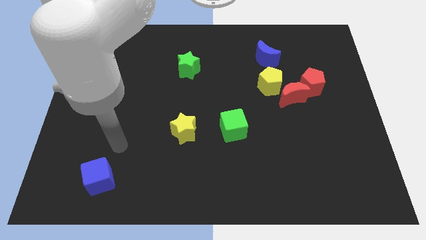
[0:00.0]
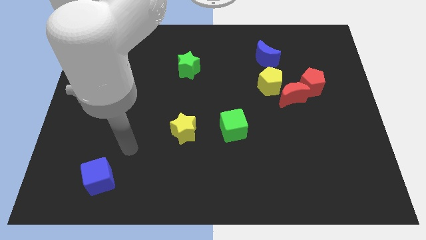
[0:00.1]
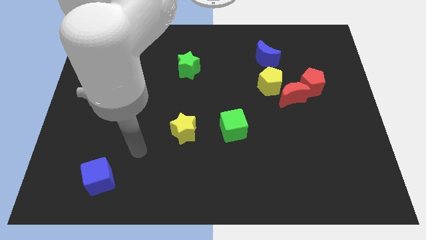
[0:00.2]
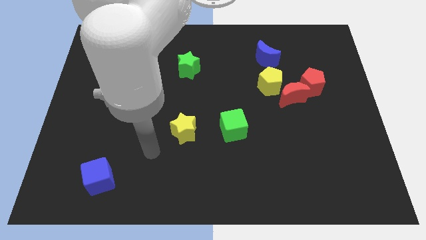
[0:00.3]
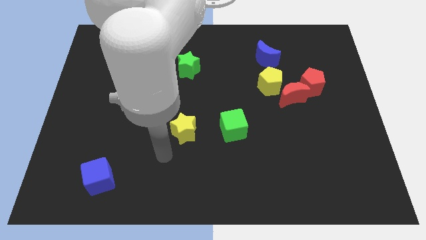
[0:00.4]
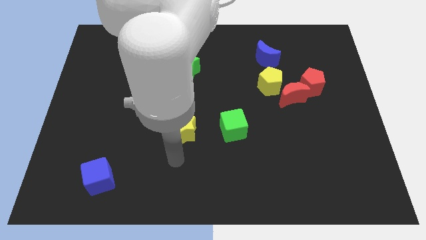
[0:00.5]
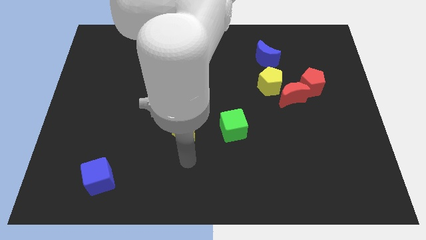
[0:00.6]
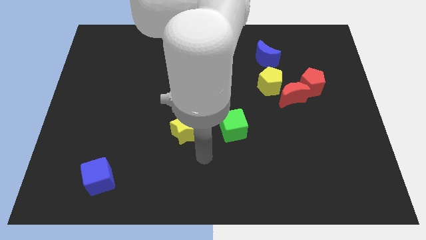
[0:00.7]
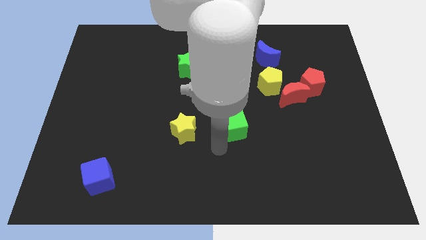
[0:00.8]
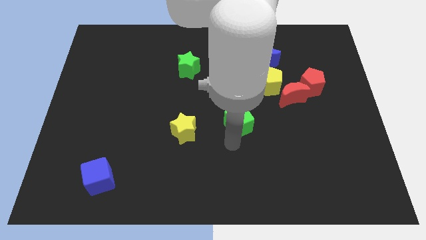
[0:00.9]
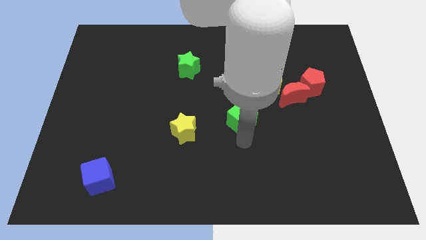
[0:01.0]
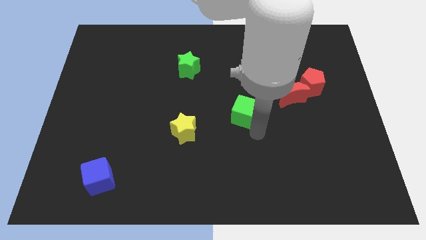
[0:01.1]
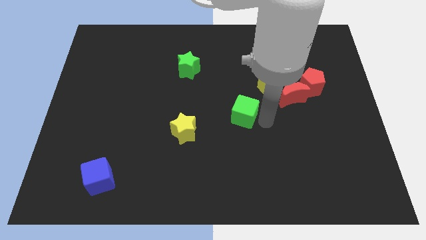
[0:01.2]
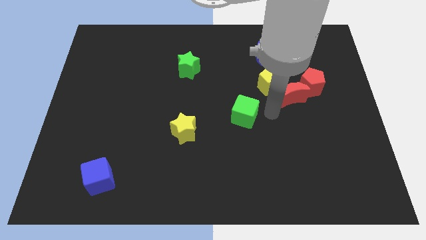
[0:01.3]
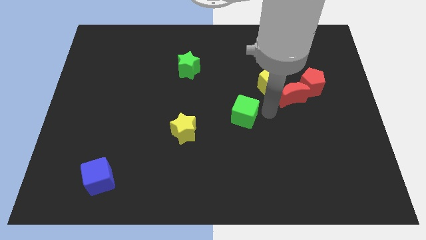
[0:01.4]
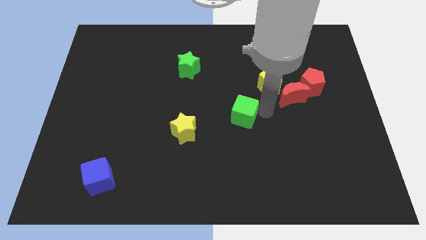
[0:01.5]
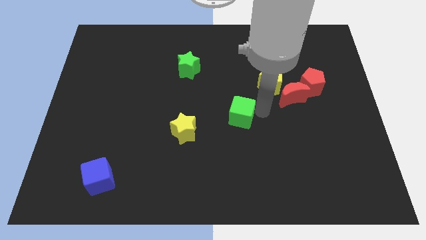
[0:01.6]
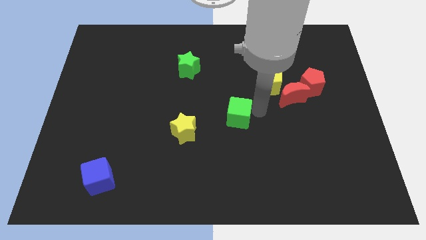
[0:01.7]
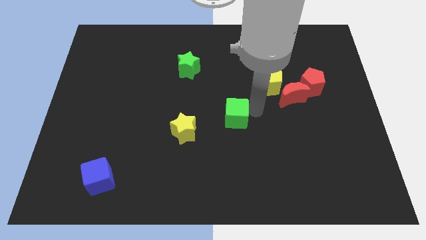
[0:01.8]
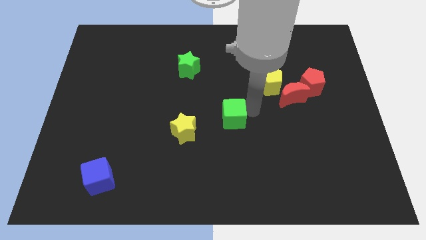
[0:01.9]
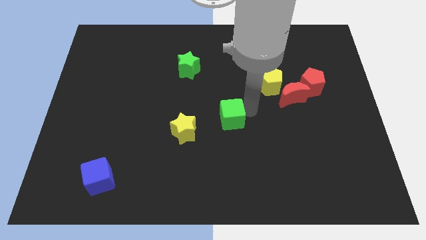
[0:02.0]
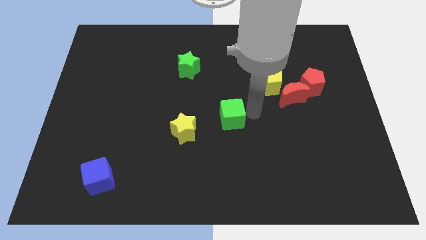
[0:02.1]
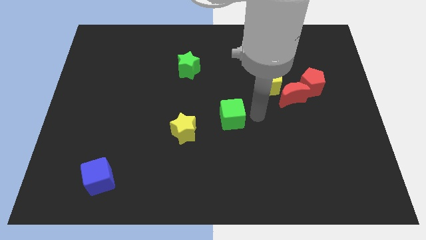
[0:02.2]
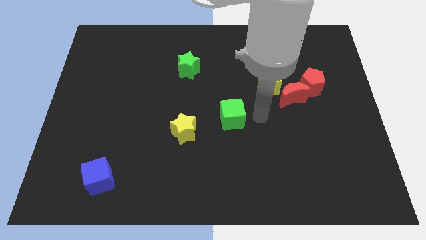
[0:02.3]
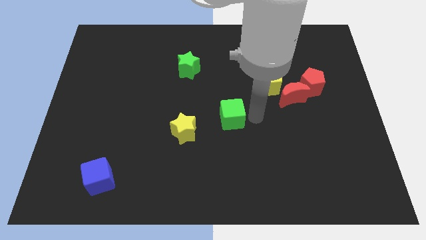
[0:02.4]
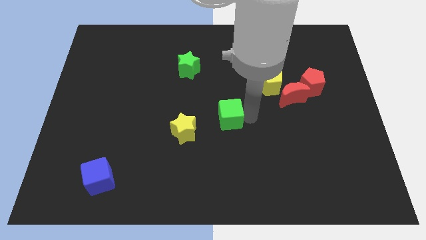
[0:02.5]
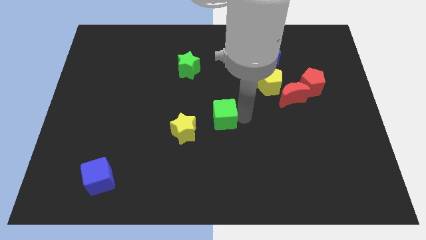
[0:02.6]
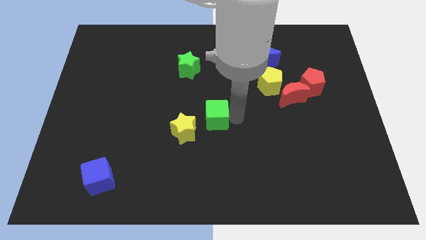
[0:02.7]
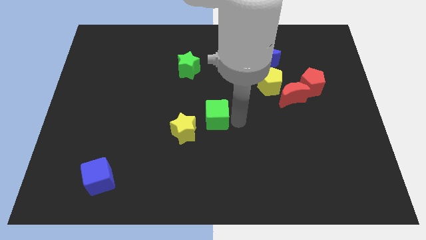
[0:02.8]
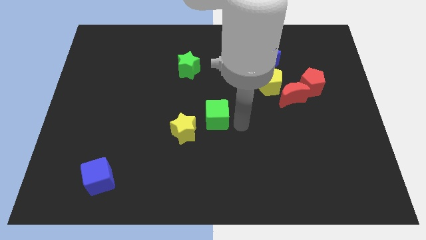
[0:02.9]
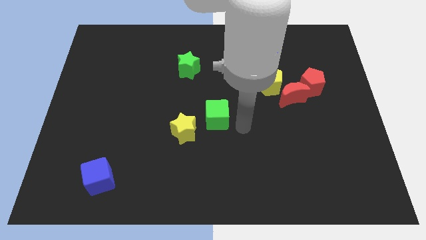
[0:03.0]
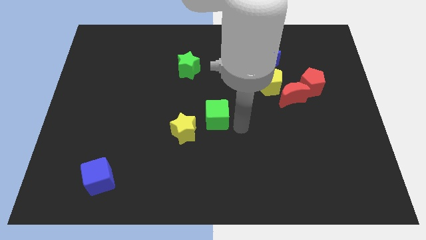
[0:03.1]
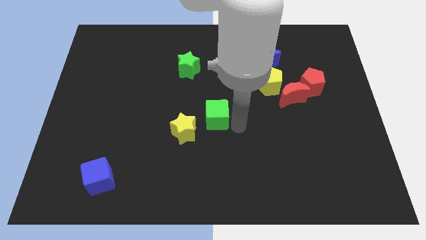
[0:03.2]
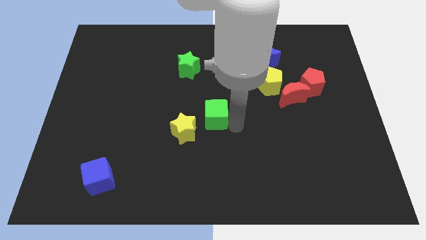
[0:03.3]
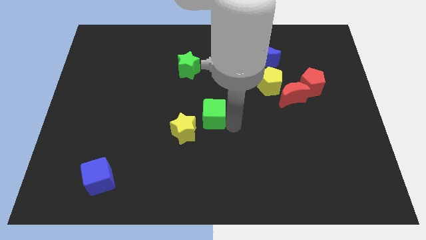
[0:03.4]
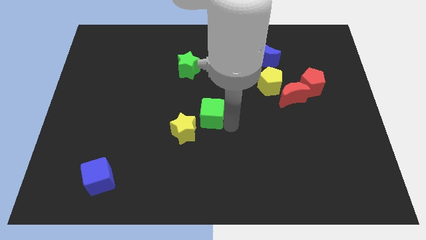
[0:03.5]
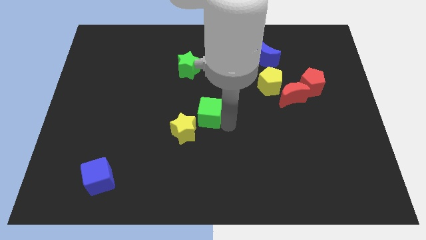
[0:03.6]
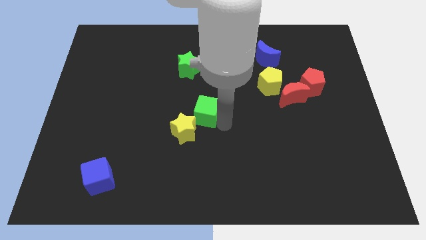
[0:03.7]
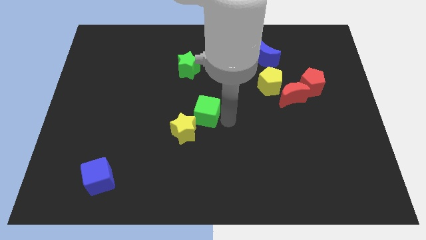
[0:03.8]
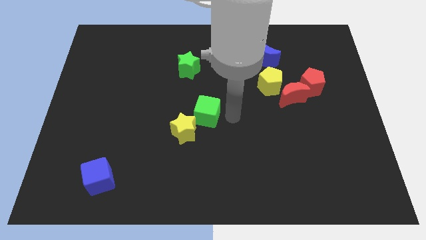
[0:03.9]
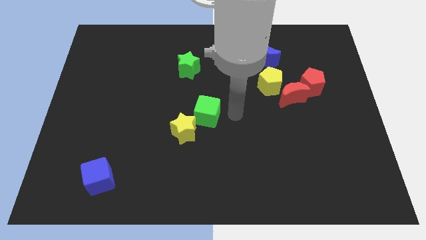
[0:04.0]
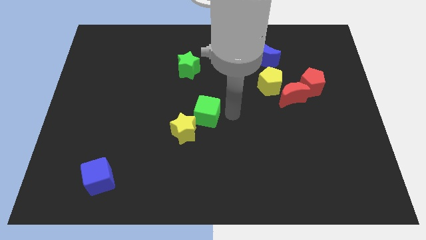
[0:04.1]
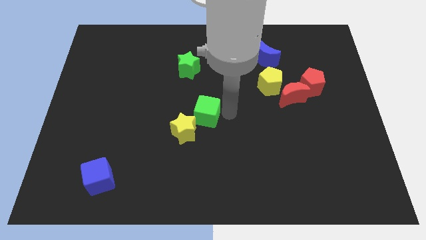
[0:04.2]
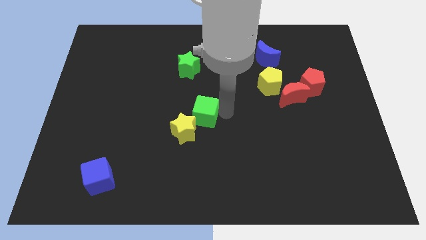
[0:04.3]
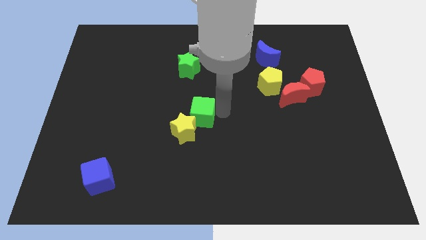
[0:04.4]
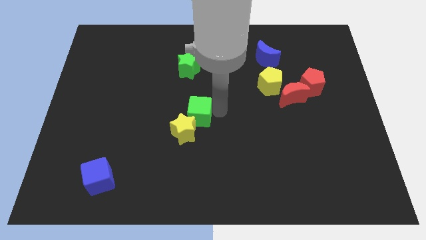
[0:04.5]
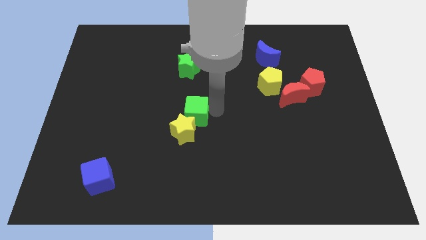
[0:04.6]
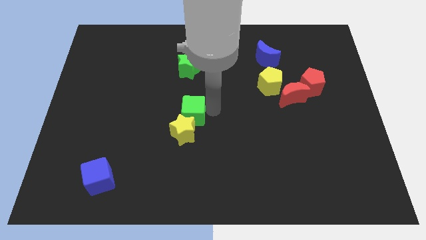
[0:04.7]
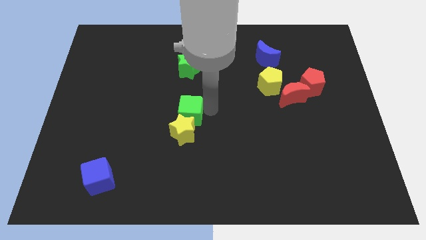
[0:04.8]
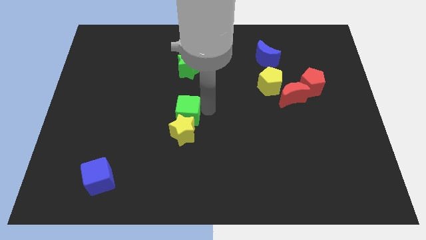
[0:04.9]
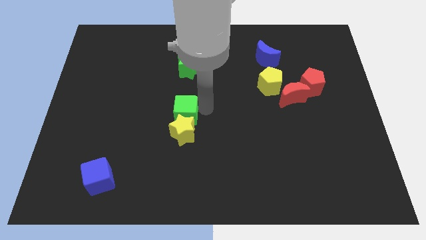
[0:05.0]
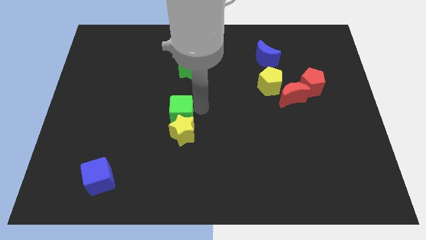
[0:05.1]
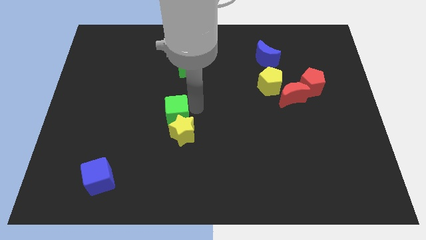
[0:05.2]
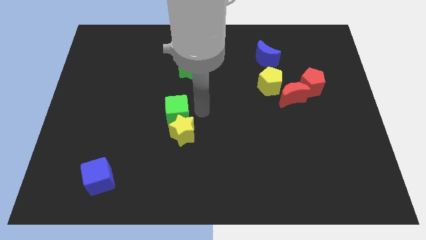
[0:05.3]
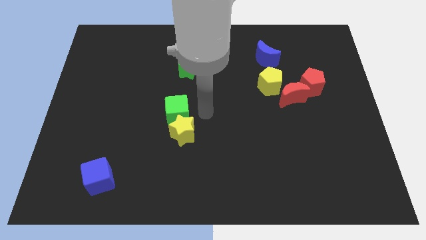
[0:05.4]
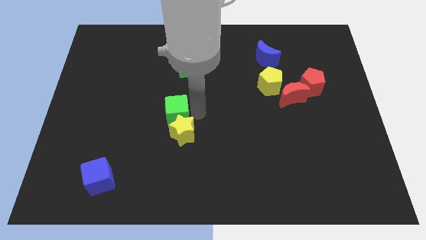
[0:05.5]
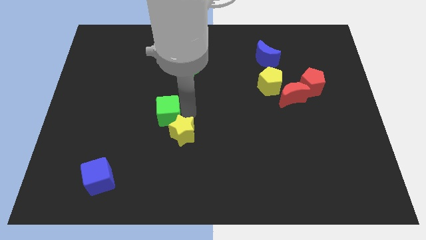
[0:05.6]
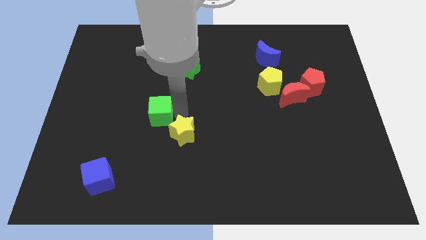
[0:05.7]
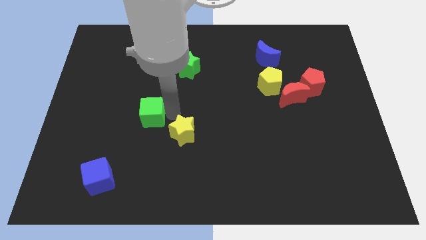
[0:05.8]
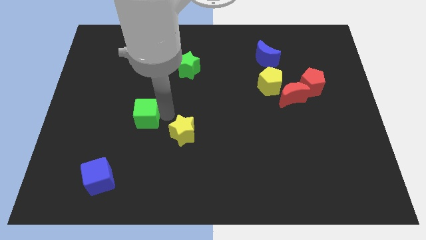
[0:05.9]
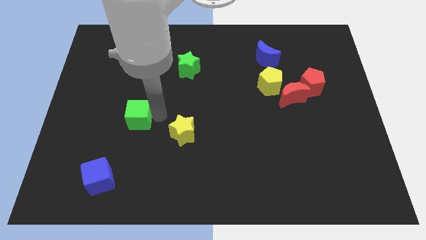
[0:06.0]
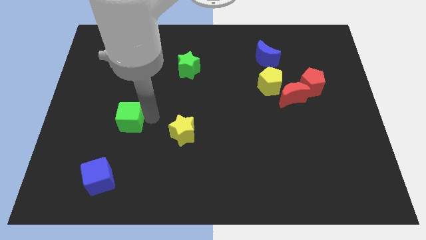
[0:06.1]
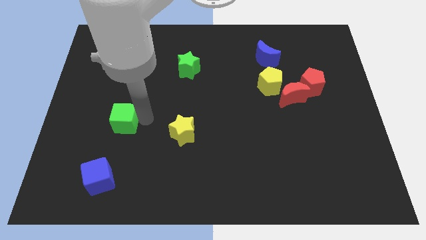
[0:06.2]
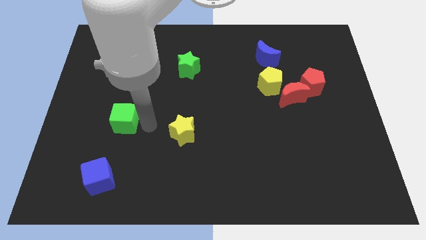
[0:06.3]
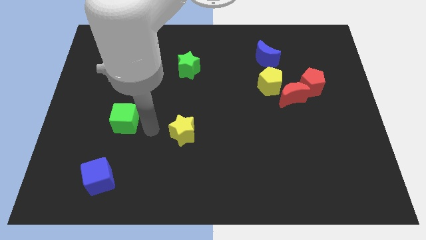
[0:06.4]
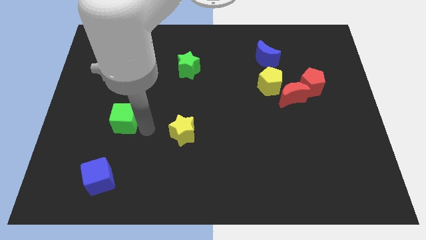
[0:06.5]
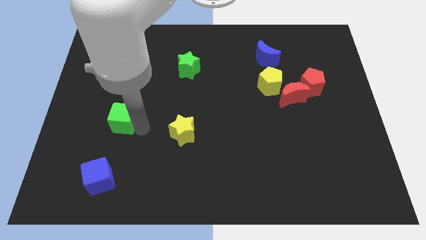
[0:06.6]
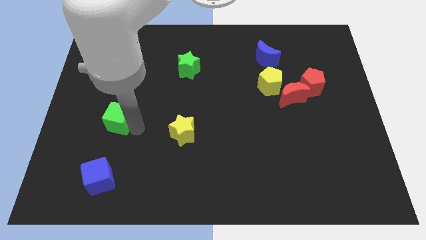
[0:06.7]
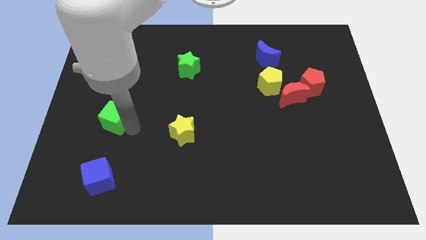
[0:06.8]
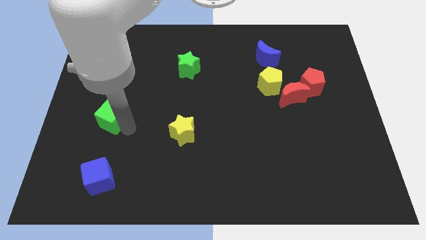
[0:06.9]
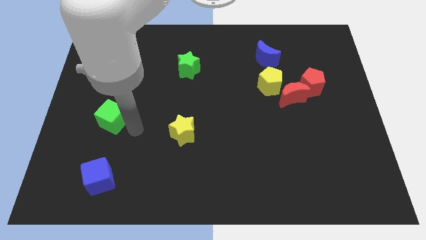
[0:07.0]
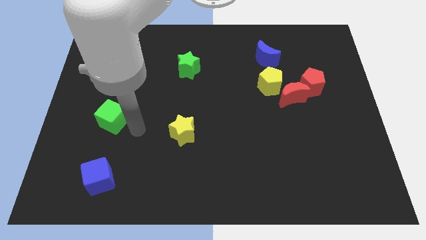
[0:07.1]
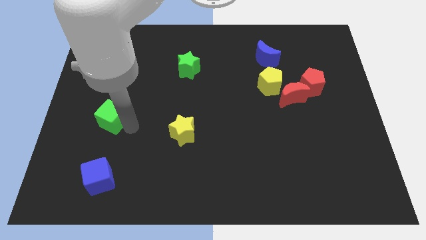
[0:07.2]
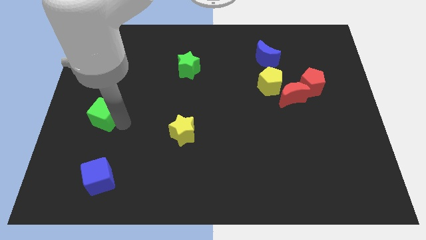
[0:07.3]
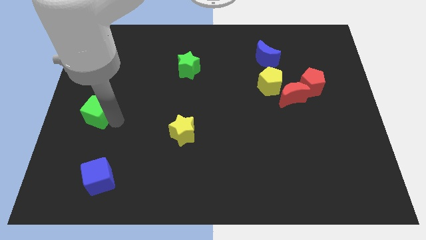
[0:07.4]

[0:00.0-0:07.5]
move the green cube to the left side of the board
